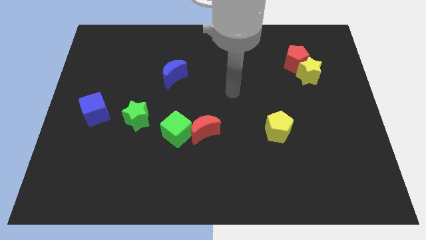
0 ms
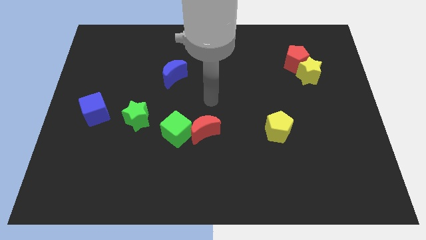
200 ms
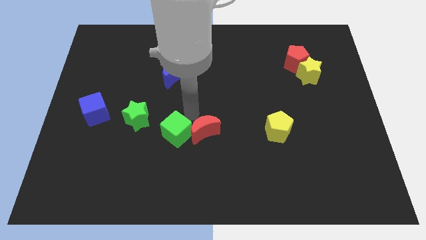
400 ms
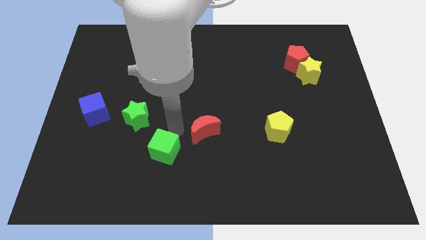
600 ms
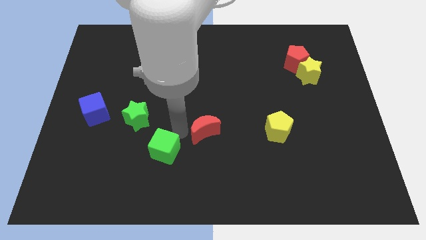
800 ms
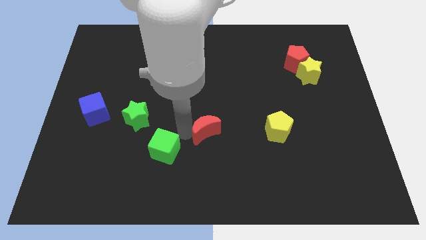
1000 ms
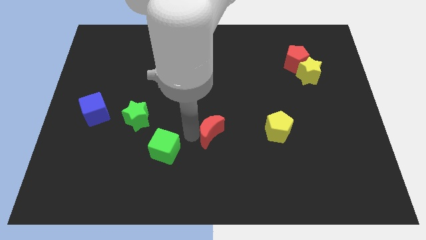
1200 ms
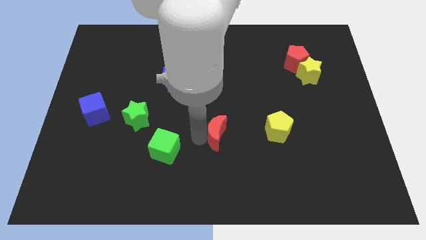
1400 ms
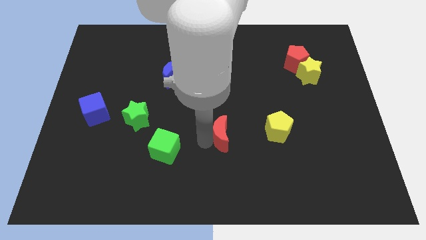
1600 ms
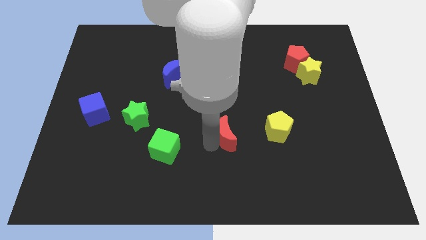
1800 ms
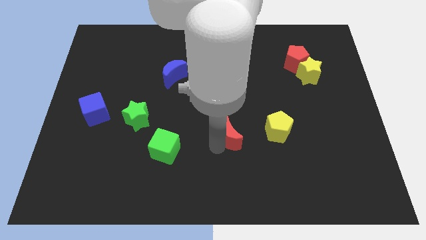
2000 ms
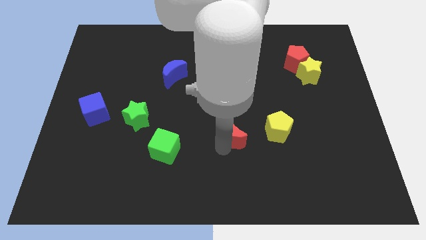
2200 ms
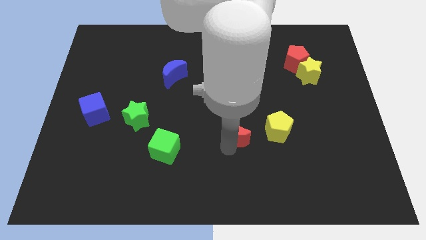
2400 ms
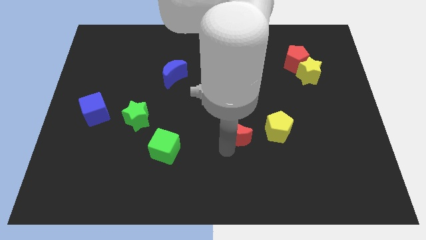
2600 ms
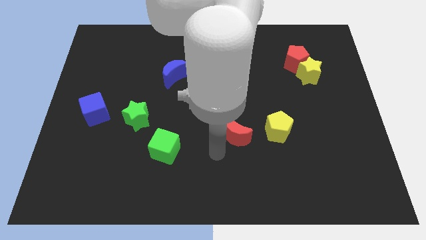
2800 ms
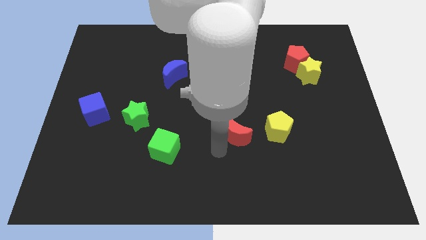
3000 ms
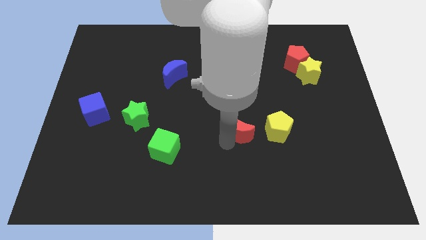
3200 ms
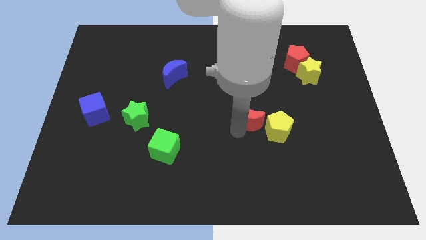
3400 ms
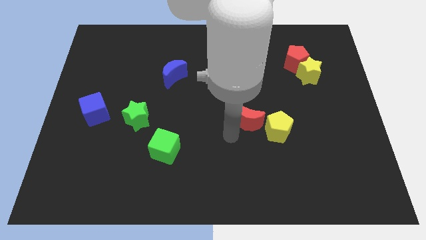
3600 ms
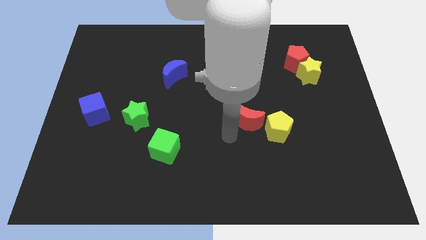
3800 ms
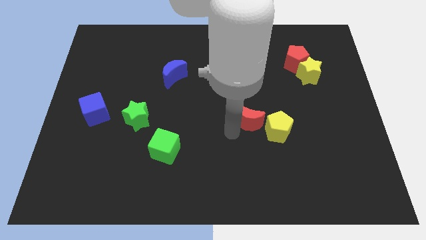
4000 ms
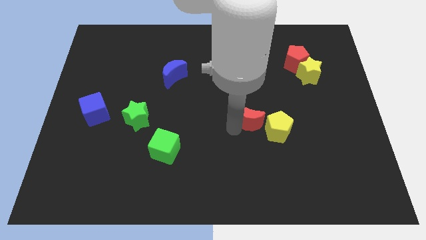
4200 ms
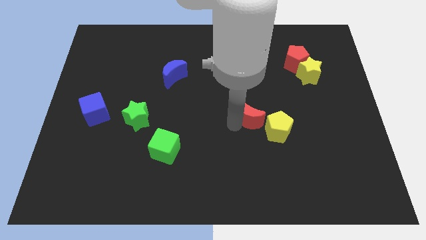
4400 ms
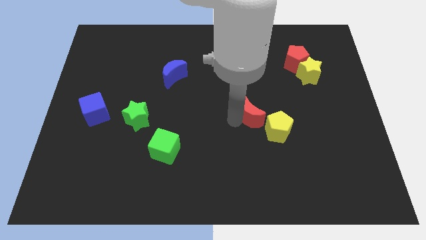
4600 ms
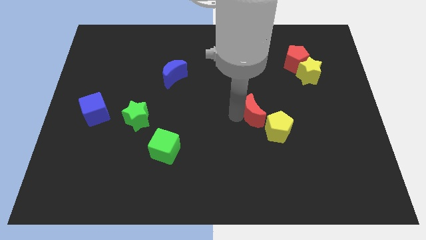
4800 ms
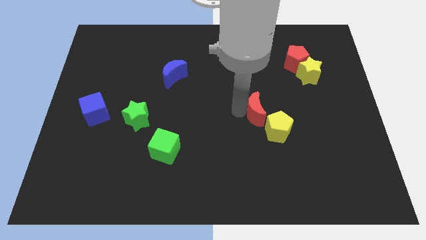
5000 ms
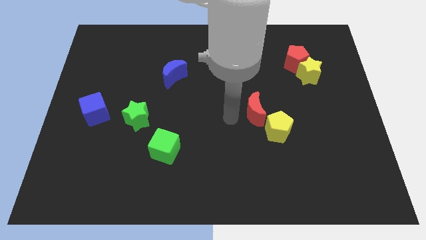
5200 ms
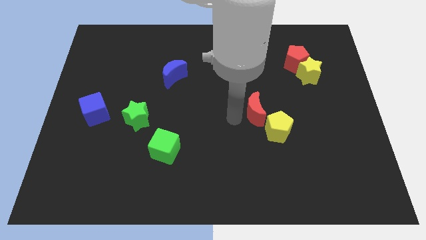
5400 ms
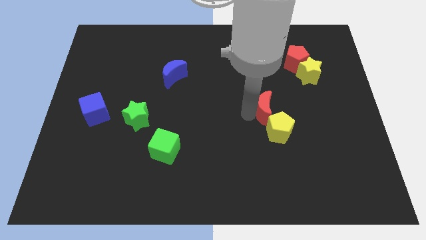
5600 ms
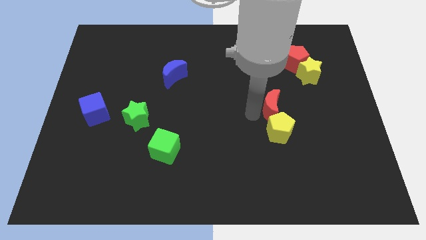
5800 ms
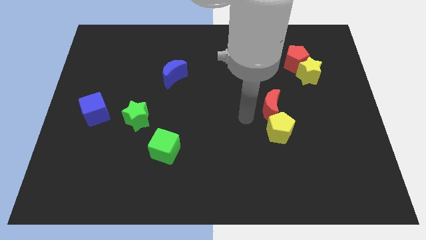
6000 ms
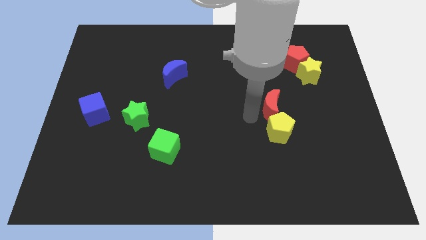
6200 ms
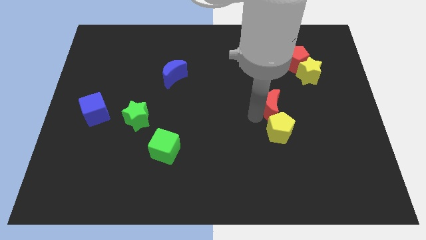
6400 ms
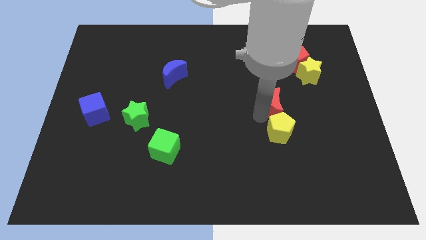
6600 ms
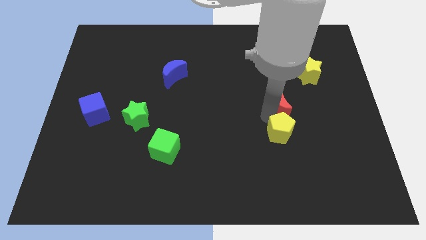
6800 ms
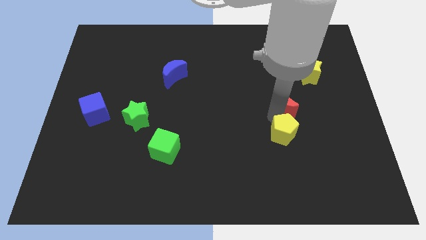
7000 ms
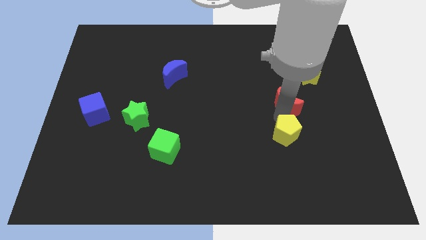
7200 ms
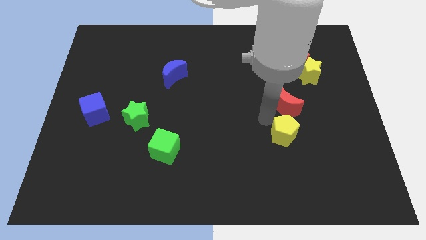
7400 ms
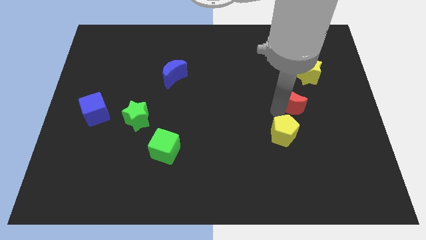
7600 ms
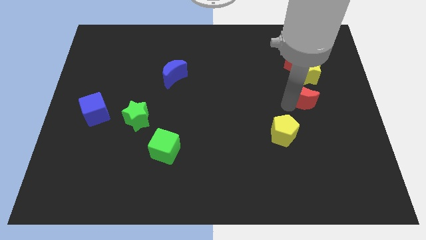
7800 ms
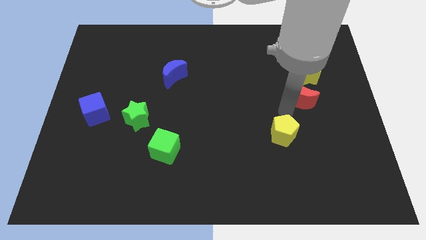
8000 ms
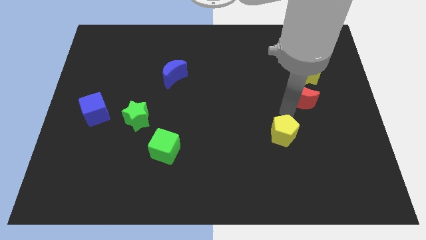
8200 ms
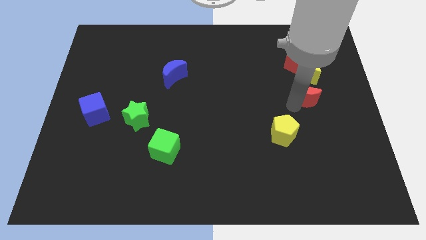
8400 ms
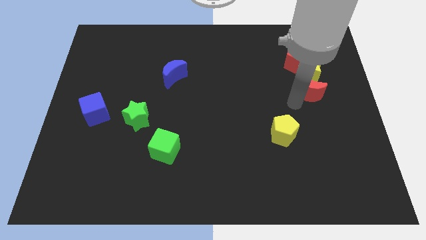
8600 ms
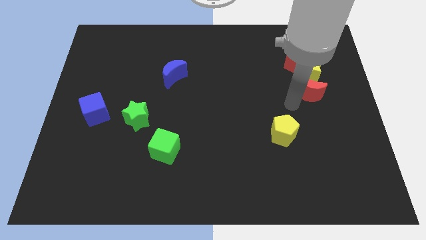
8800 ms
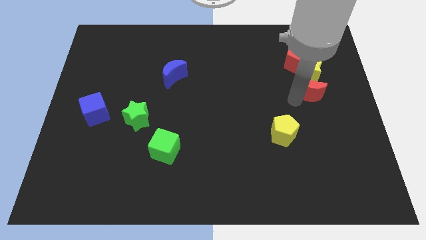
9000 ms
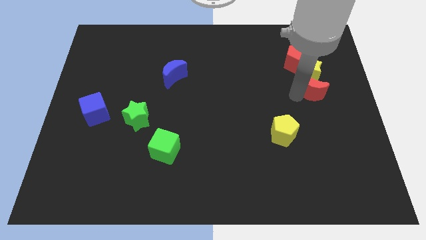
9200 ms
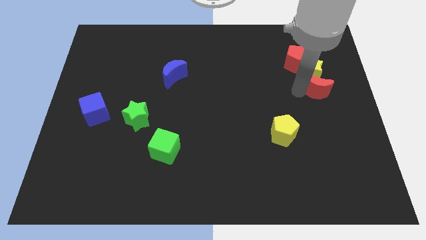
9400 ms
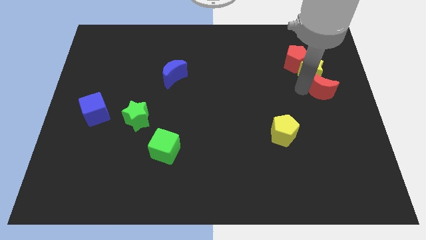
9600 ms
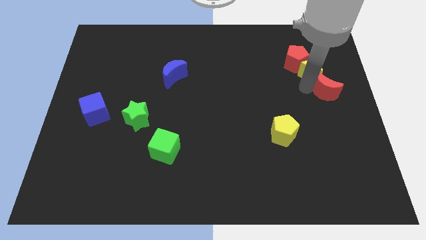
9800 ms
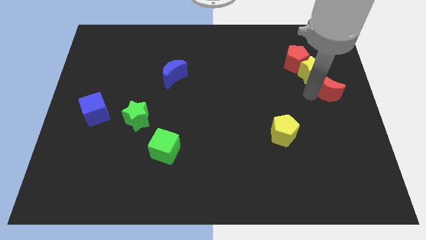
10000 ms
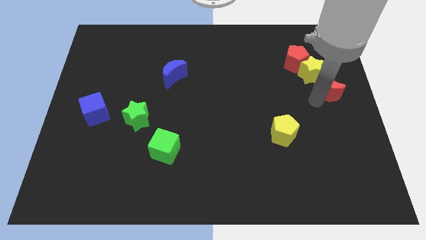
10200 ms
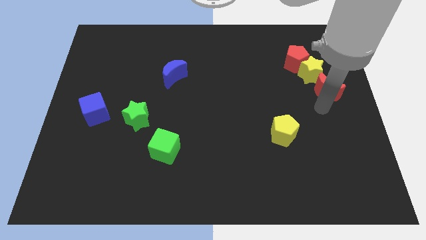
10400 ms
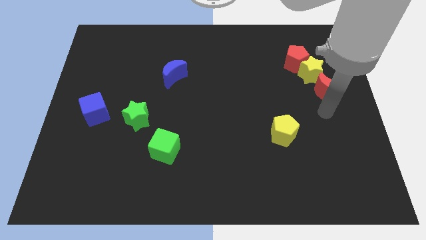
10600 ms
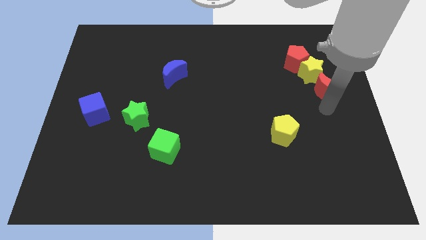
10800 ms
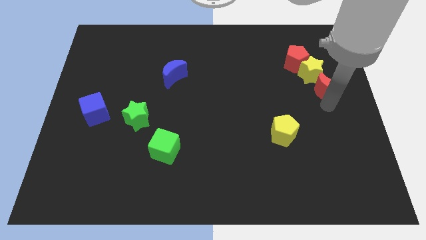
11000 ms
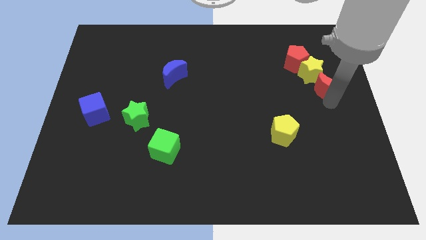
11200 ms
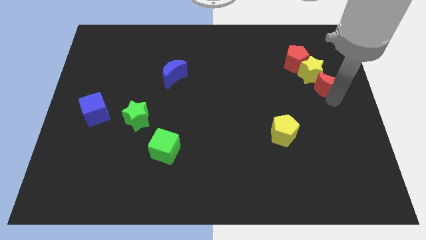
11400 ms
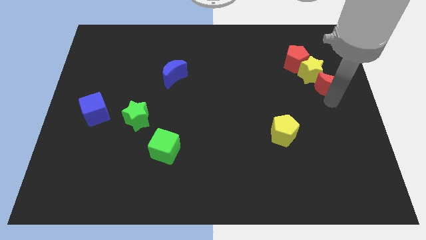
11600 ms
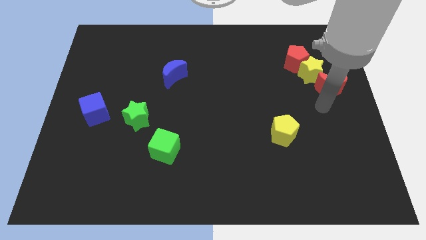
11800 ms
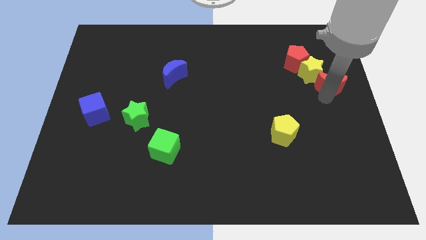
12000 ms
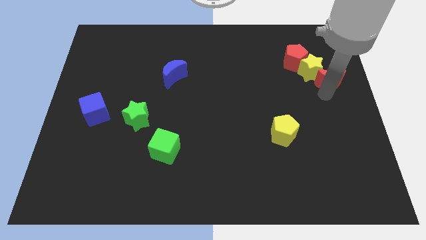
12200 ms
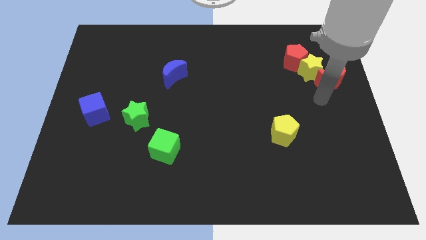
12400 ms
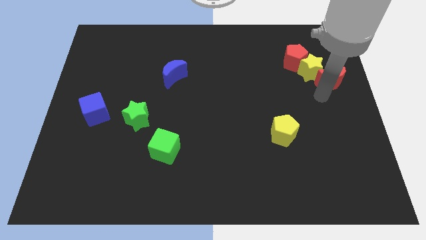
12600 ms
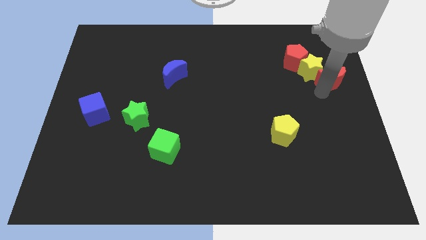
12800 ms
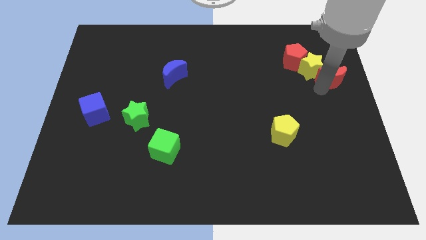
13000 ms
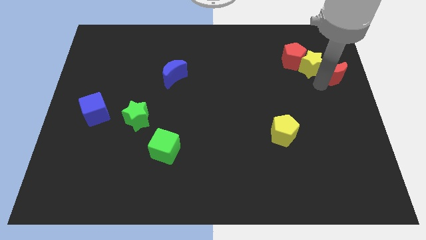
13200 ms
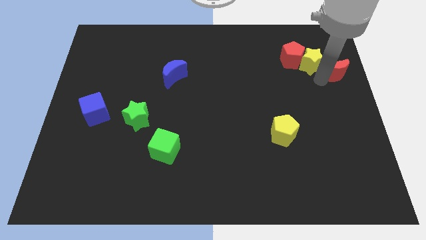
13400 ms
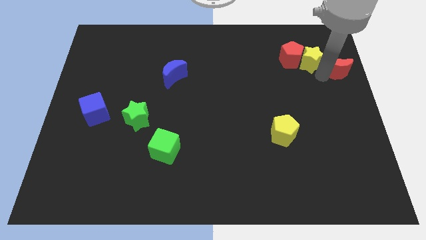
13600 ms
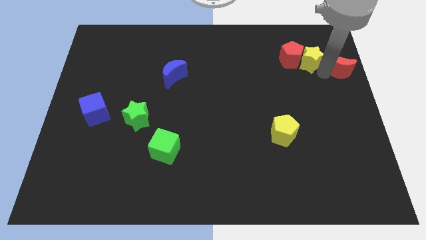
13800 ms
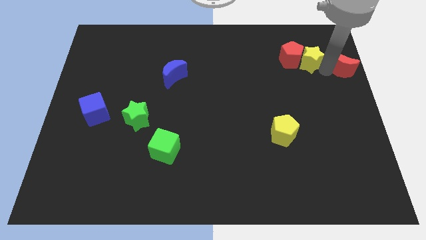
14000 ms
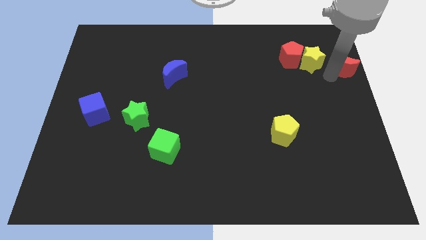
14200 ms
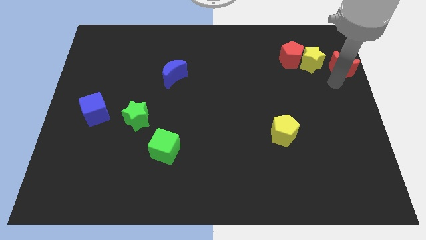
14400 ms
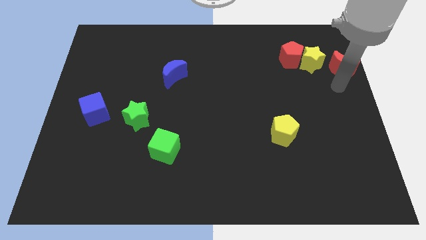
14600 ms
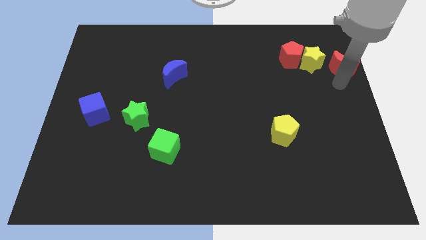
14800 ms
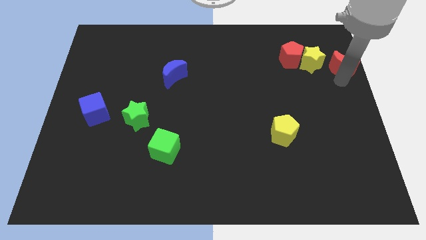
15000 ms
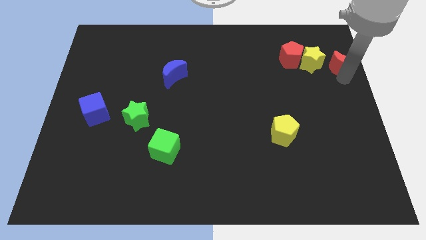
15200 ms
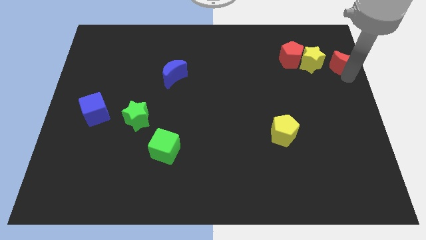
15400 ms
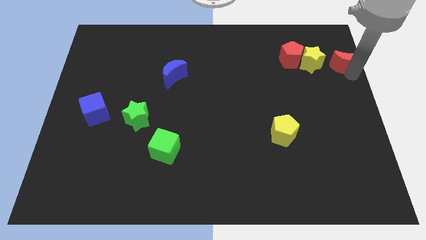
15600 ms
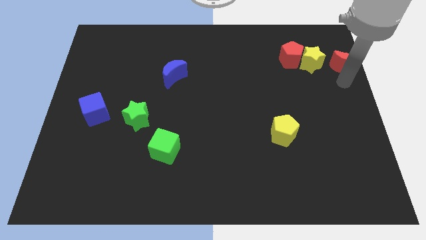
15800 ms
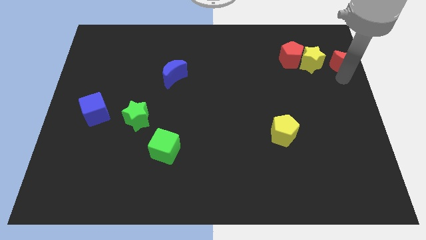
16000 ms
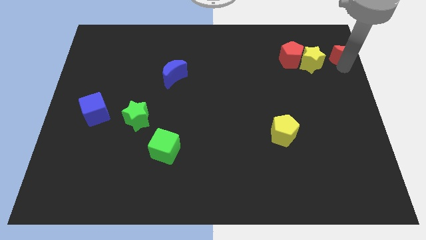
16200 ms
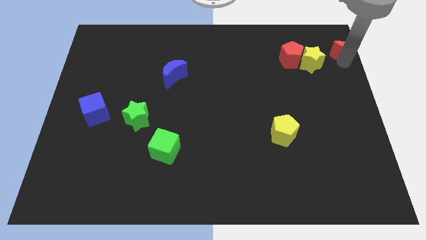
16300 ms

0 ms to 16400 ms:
push the red moon to the top right
